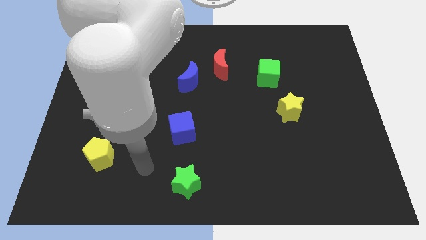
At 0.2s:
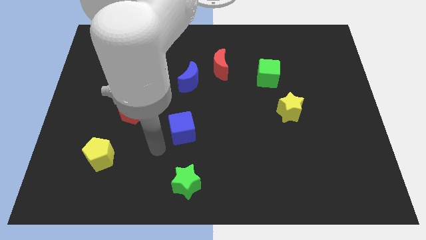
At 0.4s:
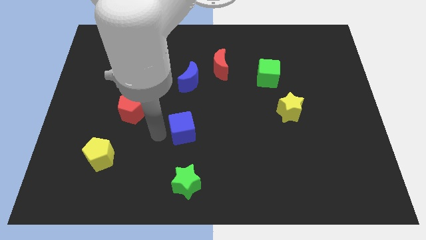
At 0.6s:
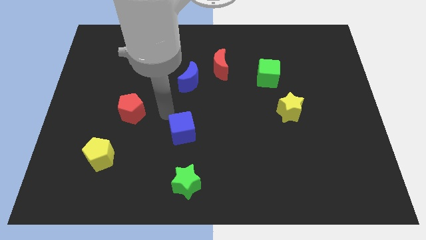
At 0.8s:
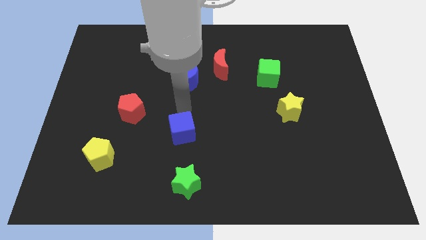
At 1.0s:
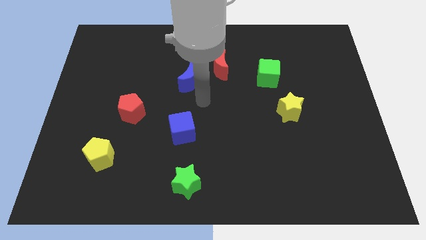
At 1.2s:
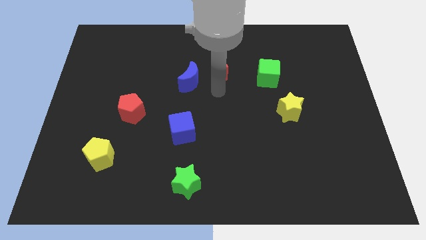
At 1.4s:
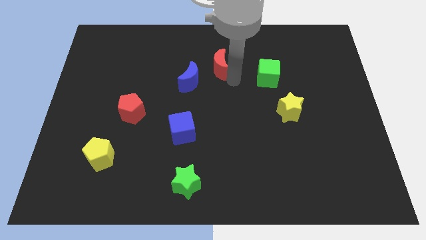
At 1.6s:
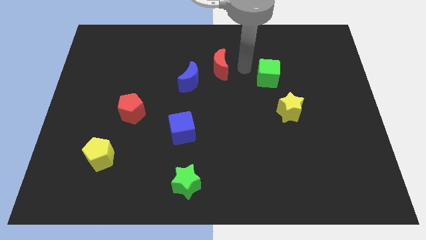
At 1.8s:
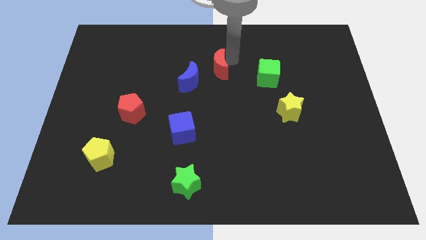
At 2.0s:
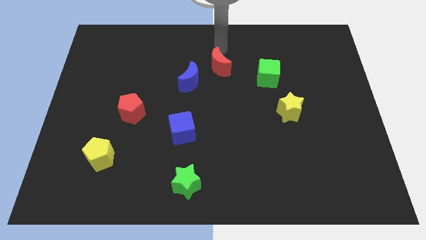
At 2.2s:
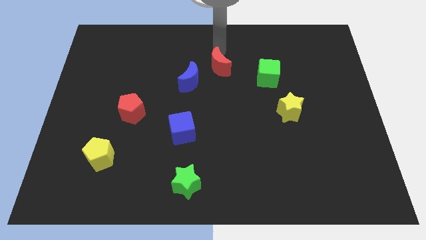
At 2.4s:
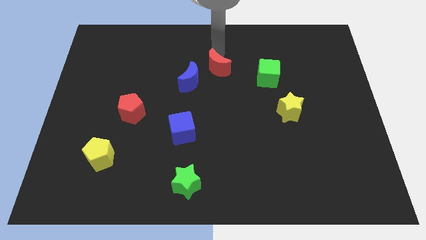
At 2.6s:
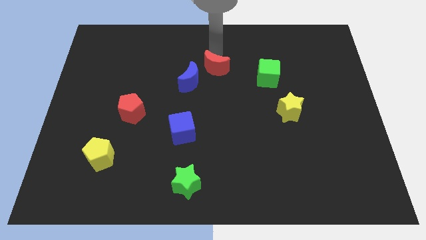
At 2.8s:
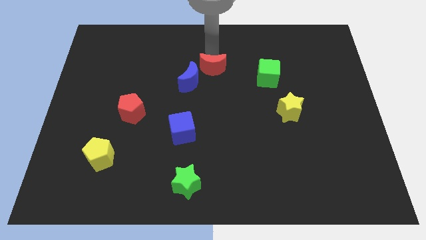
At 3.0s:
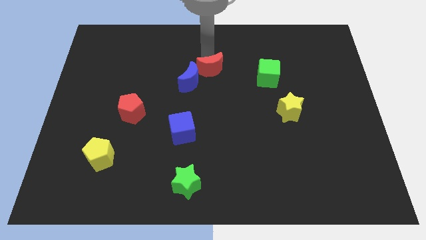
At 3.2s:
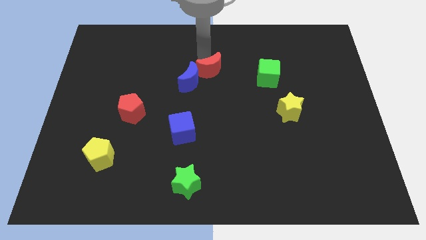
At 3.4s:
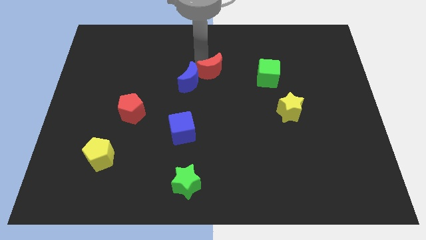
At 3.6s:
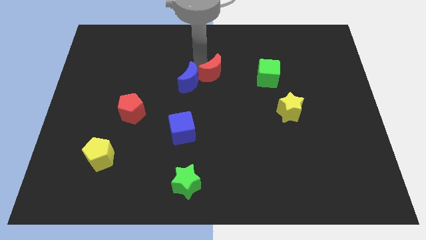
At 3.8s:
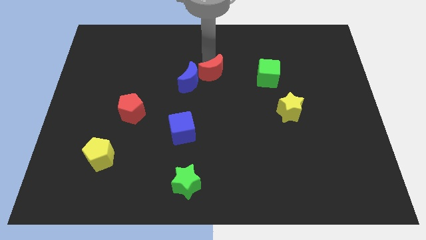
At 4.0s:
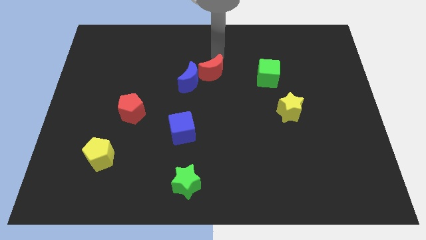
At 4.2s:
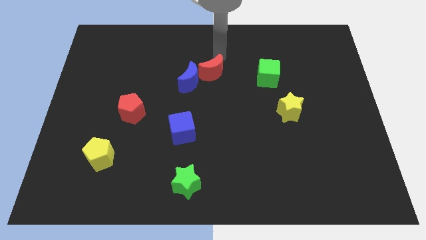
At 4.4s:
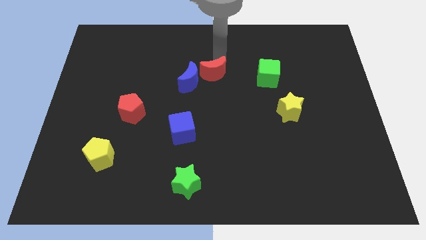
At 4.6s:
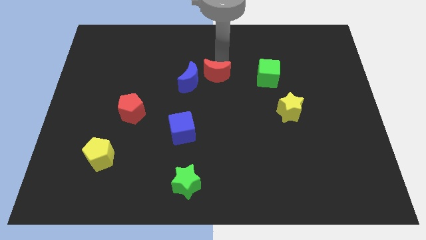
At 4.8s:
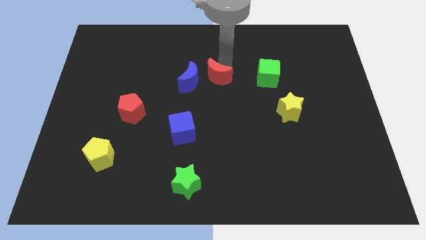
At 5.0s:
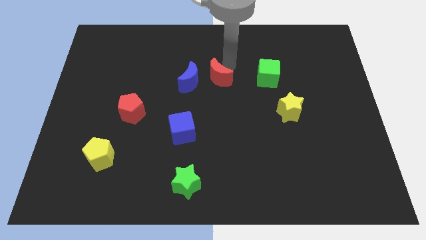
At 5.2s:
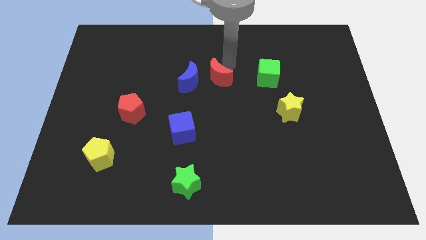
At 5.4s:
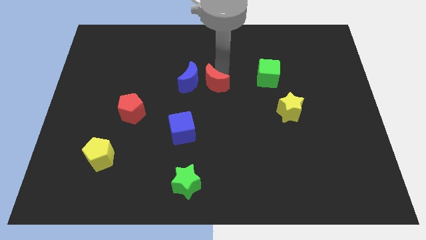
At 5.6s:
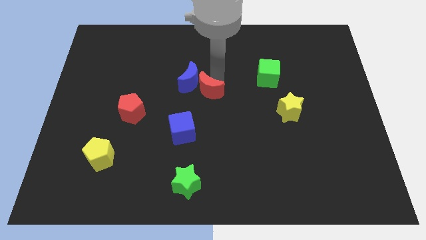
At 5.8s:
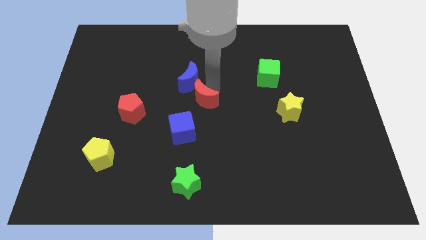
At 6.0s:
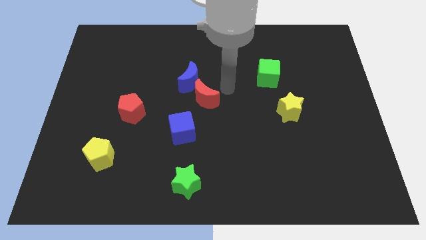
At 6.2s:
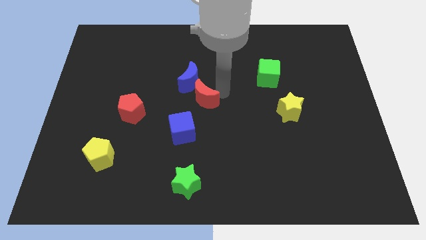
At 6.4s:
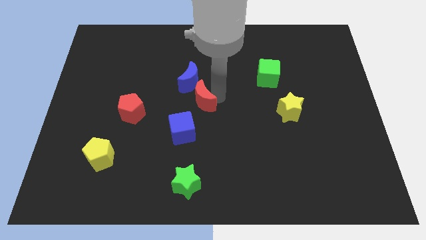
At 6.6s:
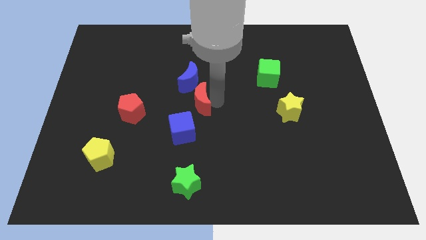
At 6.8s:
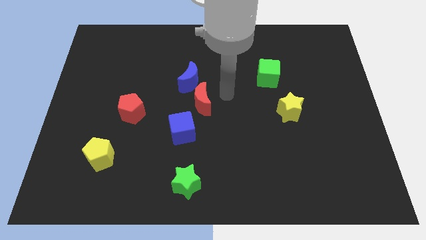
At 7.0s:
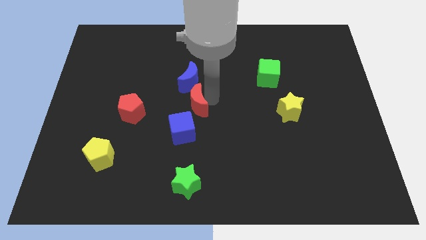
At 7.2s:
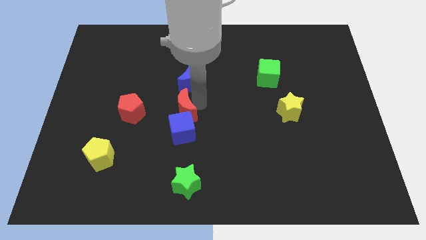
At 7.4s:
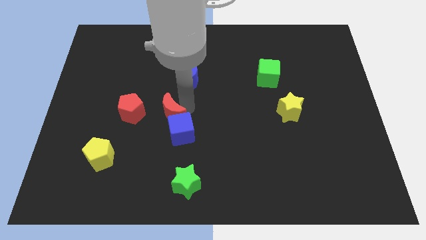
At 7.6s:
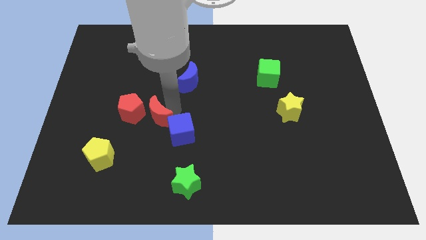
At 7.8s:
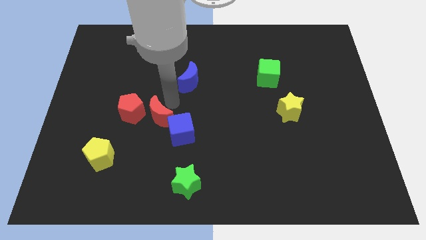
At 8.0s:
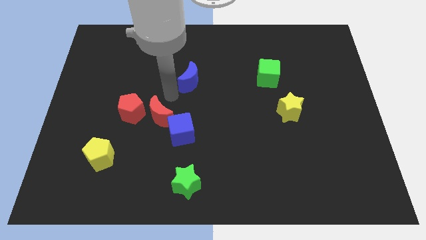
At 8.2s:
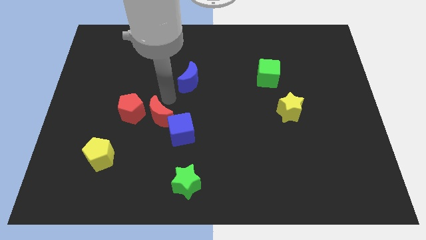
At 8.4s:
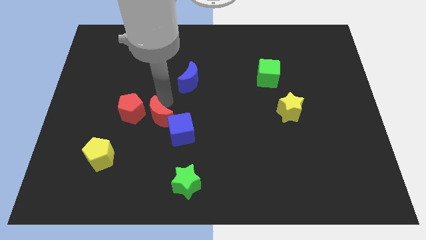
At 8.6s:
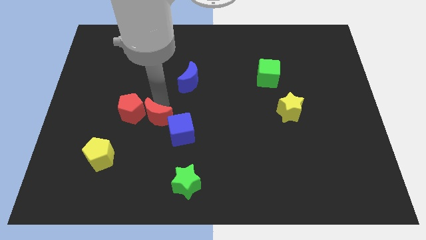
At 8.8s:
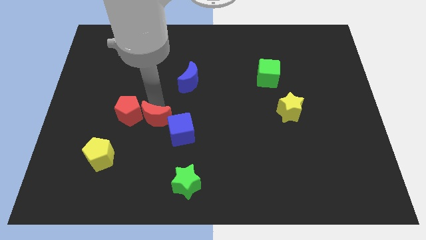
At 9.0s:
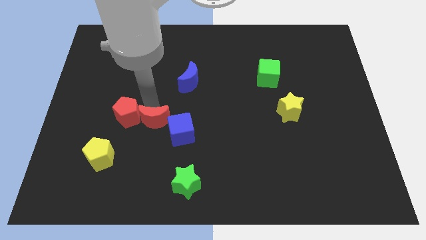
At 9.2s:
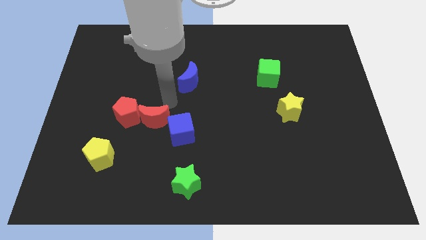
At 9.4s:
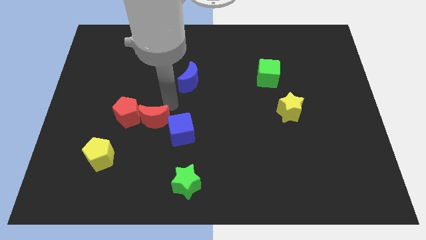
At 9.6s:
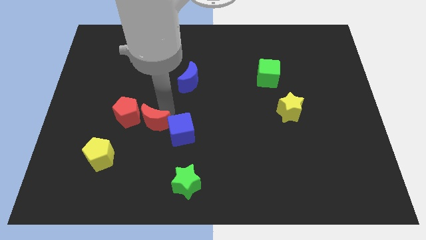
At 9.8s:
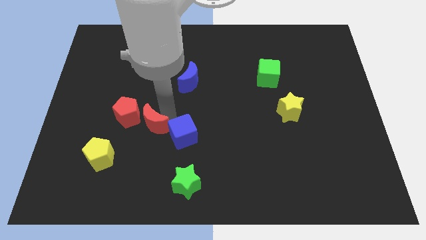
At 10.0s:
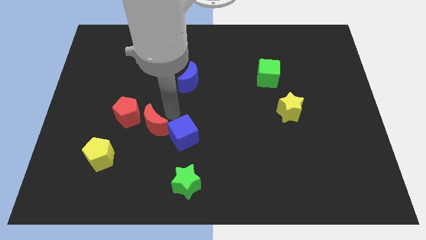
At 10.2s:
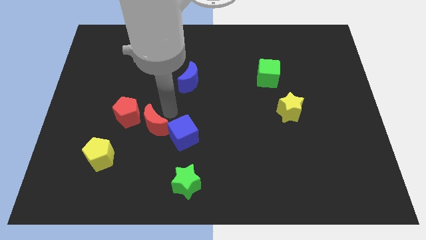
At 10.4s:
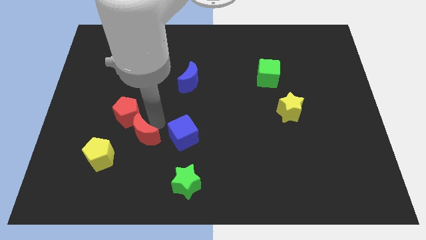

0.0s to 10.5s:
move the red moon to the bottom side of the red pentagon

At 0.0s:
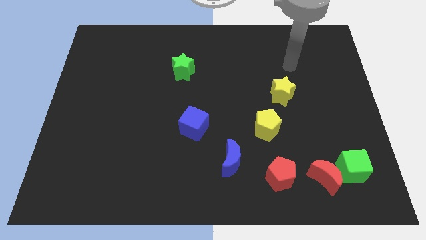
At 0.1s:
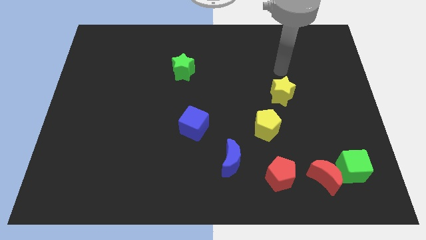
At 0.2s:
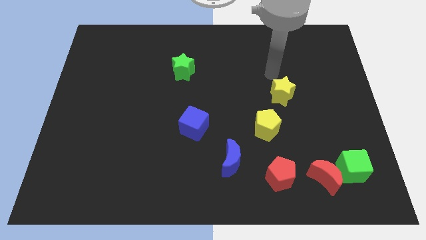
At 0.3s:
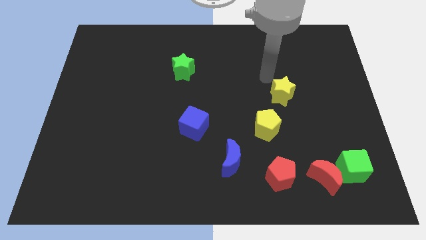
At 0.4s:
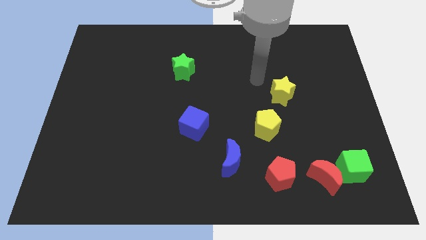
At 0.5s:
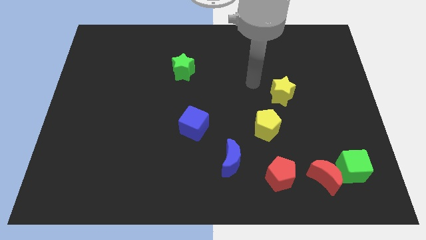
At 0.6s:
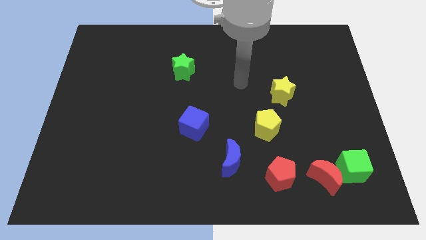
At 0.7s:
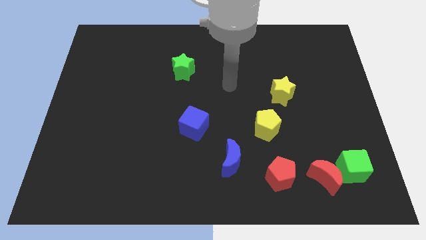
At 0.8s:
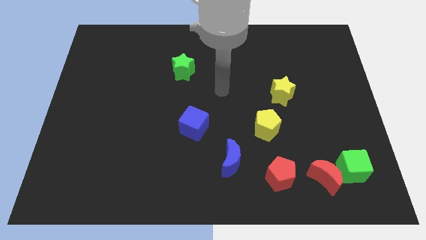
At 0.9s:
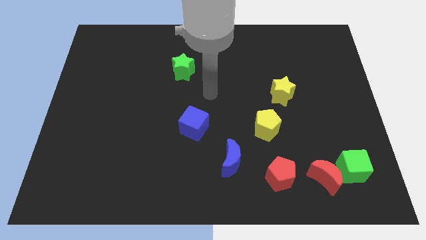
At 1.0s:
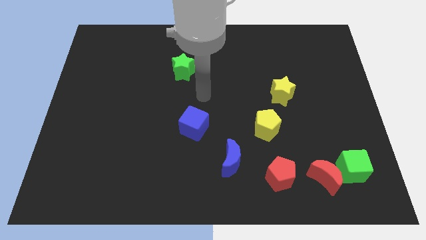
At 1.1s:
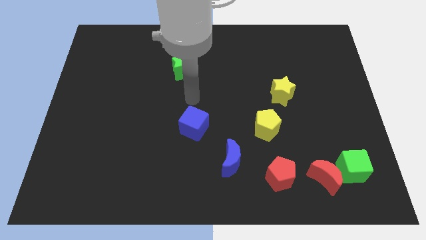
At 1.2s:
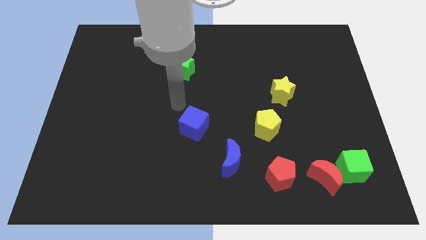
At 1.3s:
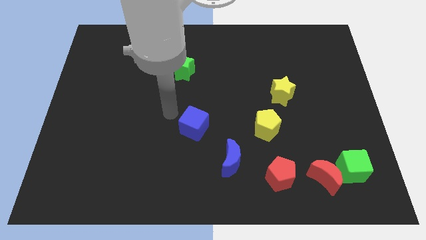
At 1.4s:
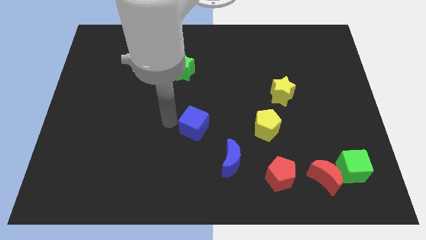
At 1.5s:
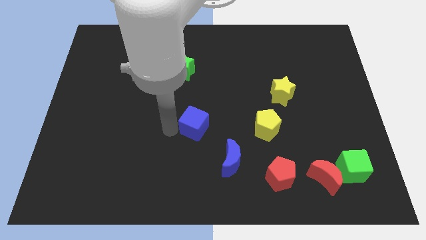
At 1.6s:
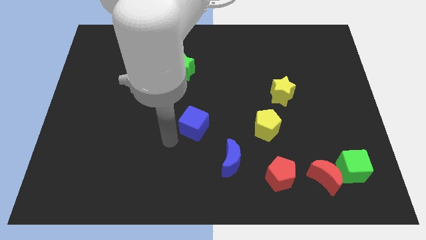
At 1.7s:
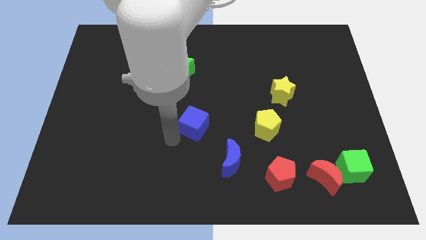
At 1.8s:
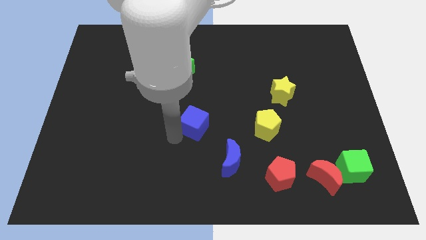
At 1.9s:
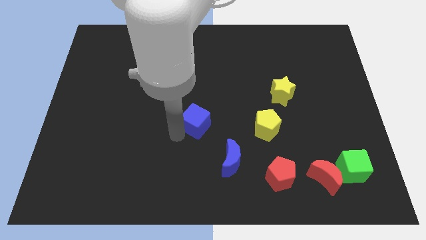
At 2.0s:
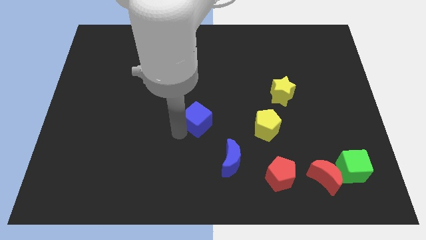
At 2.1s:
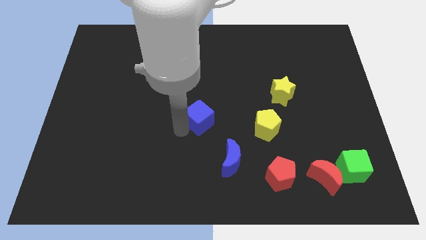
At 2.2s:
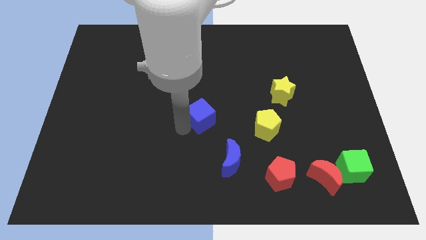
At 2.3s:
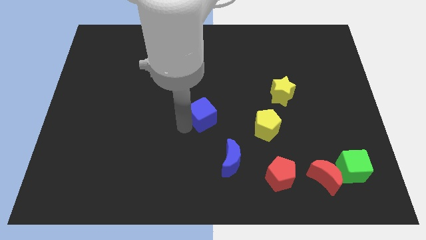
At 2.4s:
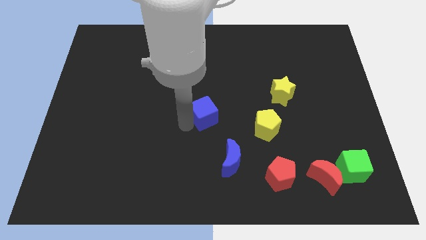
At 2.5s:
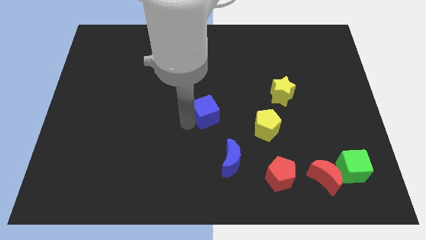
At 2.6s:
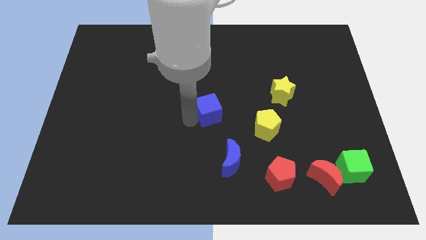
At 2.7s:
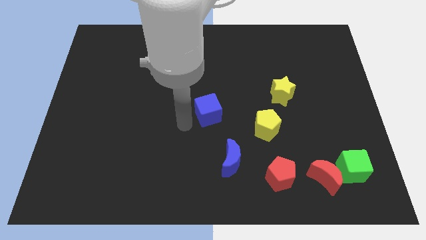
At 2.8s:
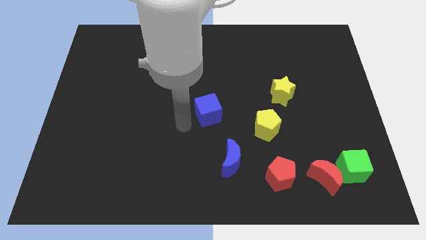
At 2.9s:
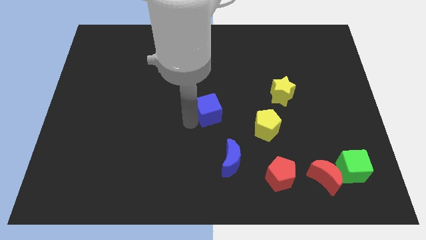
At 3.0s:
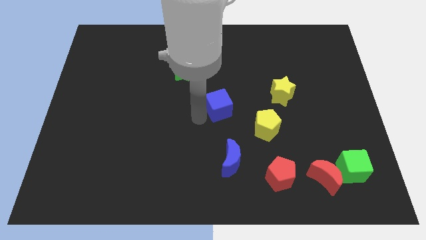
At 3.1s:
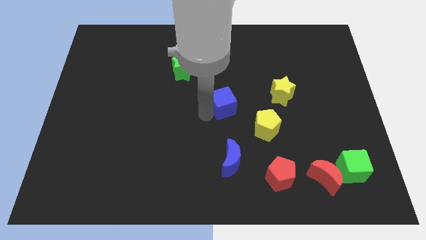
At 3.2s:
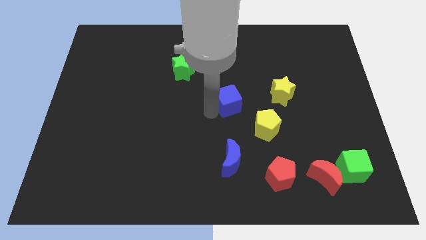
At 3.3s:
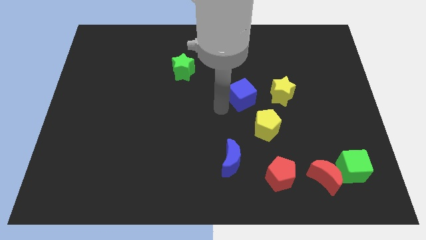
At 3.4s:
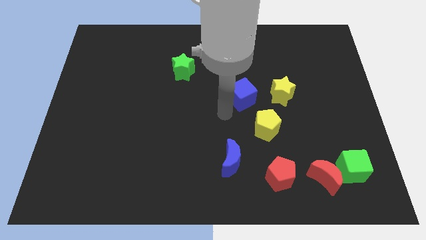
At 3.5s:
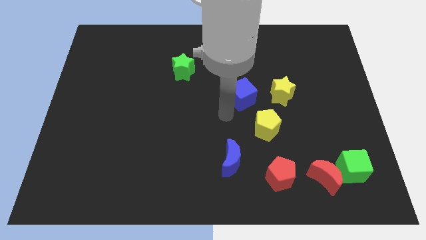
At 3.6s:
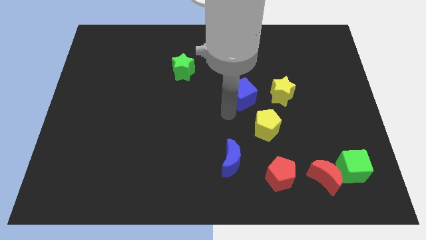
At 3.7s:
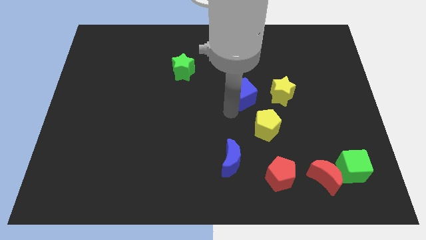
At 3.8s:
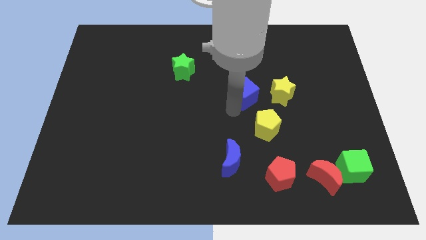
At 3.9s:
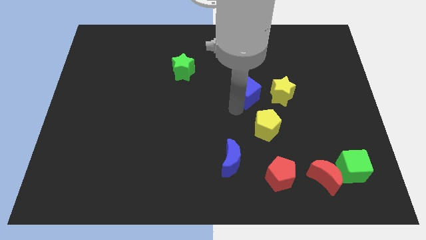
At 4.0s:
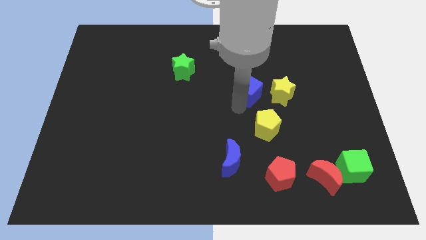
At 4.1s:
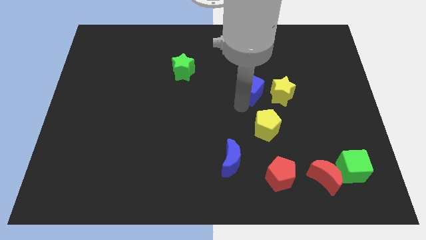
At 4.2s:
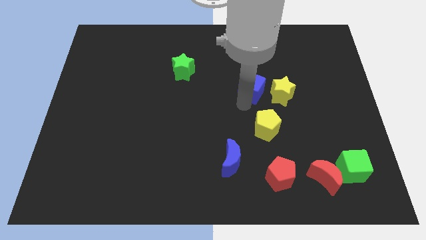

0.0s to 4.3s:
push the blue cube to the top left of the yellow star
